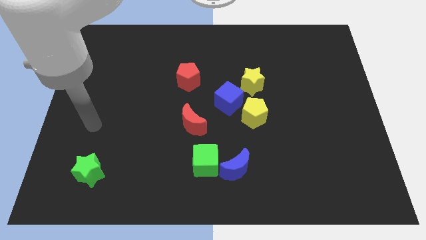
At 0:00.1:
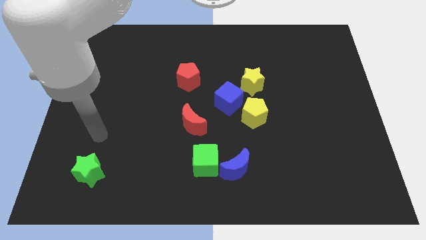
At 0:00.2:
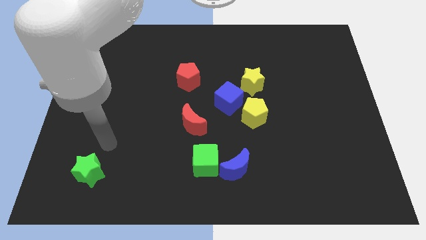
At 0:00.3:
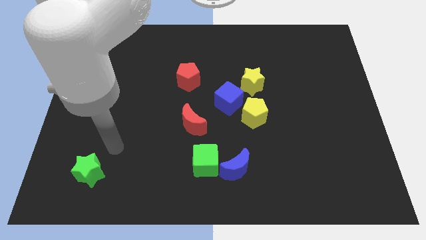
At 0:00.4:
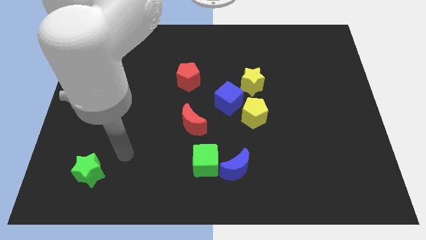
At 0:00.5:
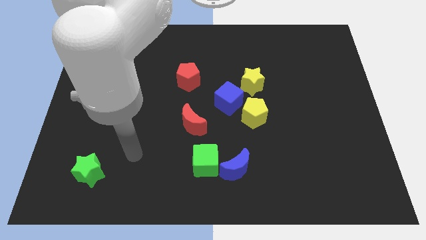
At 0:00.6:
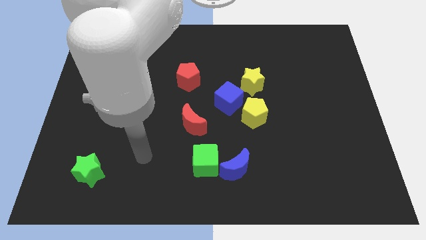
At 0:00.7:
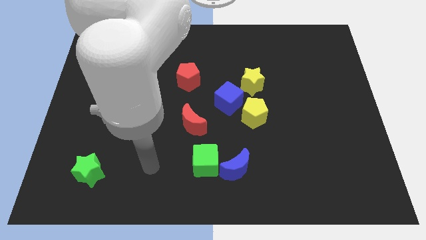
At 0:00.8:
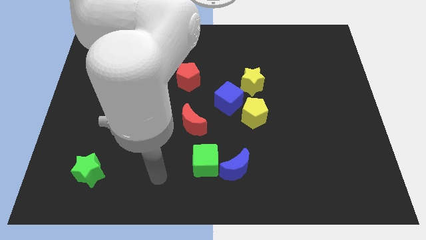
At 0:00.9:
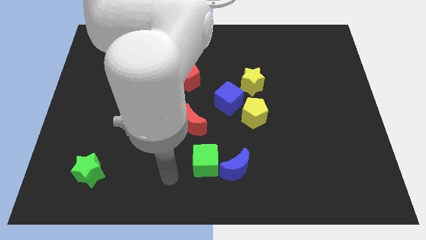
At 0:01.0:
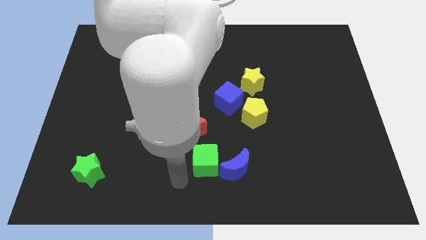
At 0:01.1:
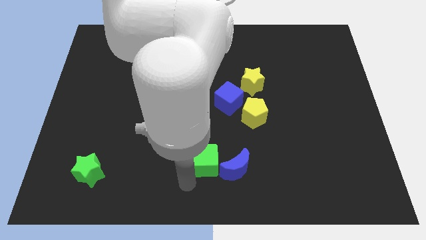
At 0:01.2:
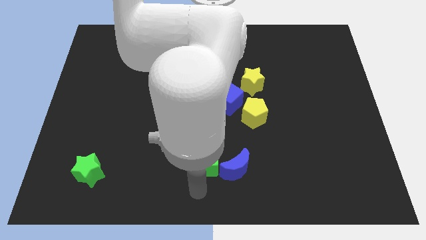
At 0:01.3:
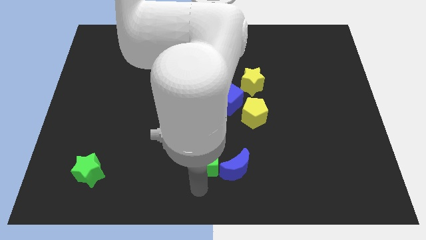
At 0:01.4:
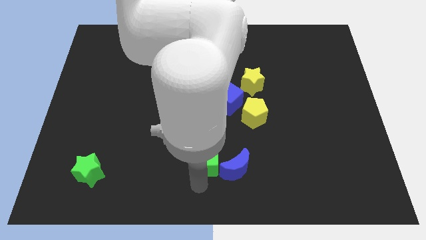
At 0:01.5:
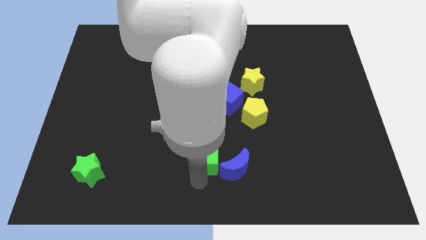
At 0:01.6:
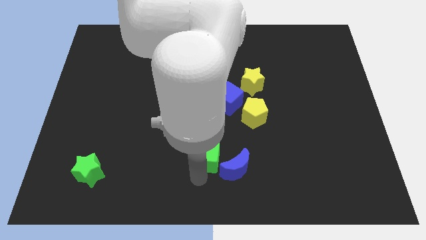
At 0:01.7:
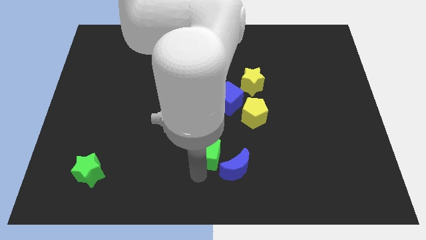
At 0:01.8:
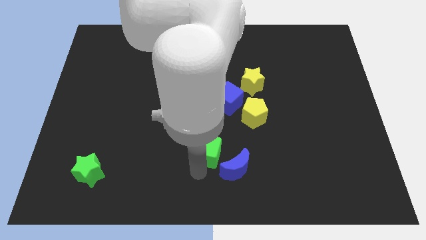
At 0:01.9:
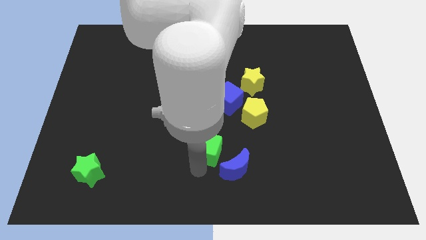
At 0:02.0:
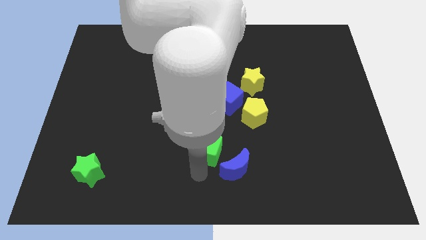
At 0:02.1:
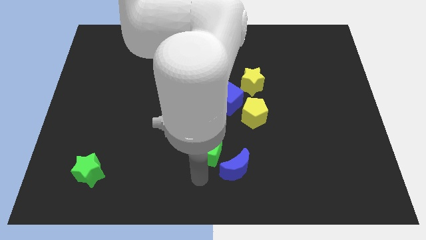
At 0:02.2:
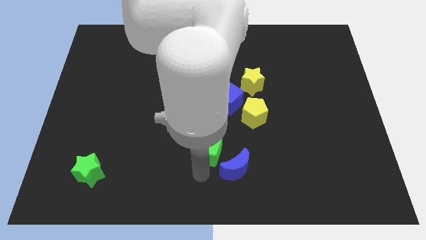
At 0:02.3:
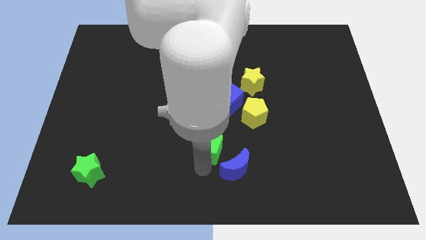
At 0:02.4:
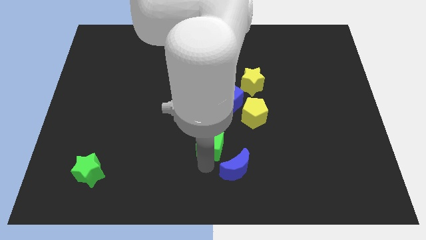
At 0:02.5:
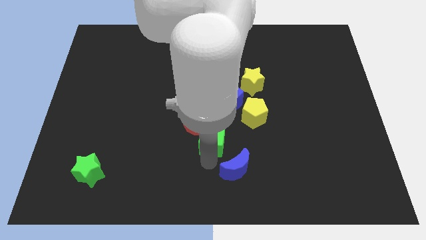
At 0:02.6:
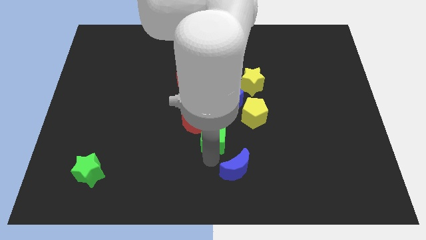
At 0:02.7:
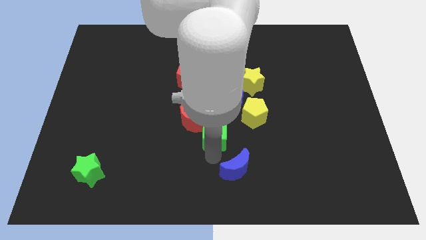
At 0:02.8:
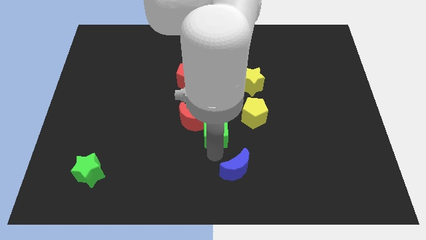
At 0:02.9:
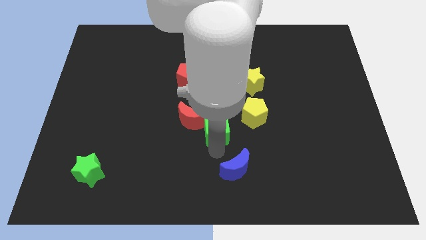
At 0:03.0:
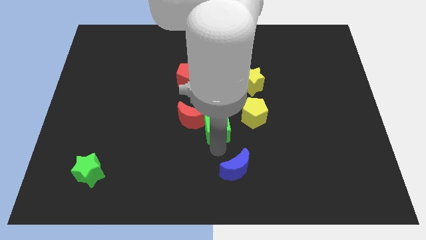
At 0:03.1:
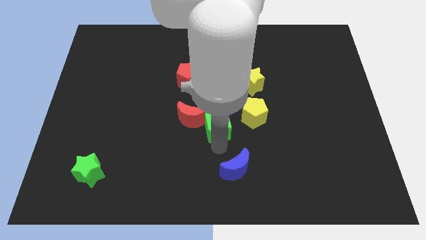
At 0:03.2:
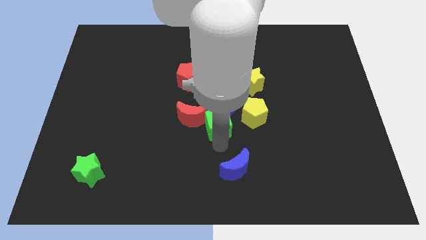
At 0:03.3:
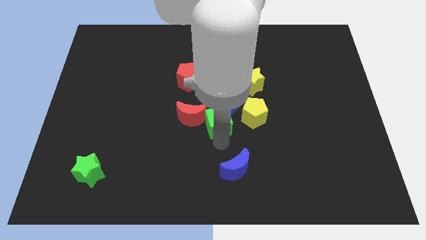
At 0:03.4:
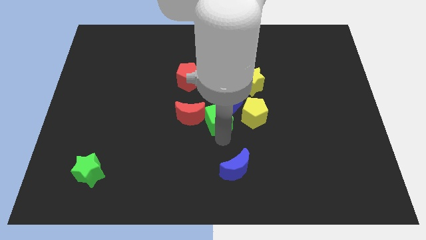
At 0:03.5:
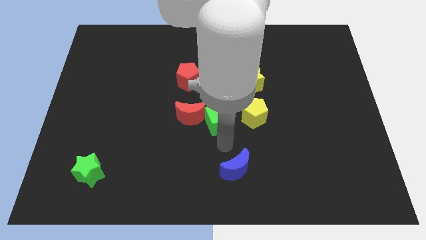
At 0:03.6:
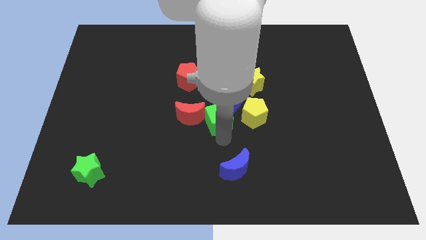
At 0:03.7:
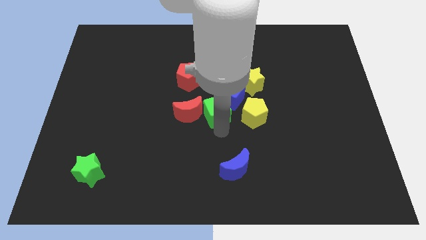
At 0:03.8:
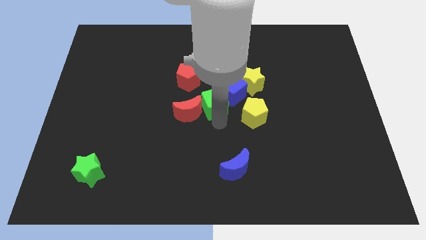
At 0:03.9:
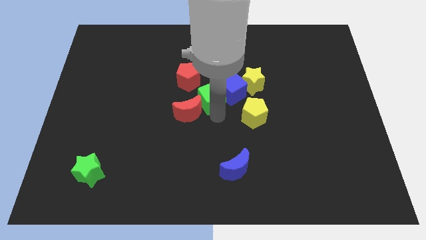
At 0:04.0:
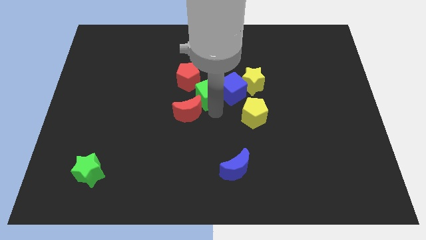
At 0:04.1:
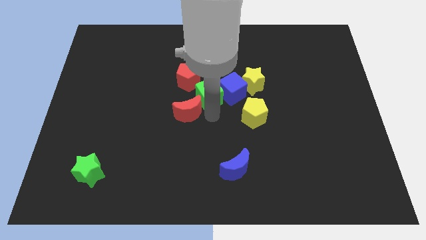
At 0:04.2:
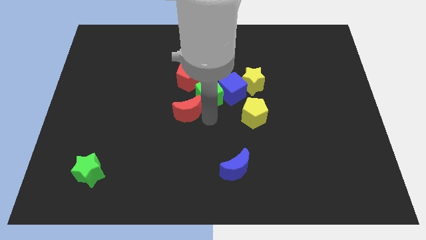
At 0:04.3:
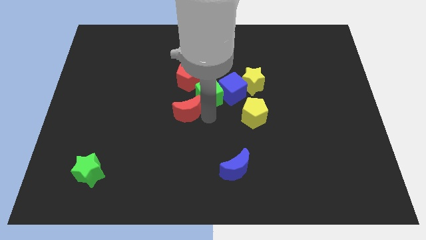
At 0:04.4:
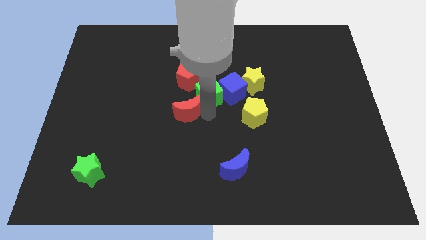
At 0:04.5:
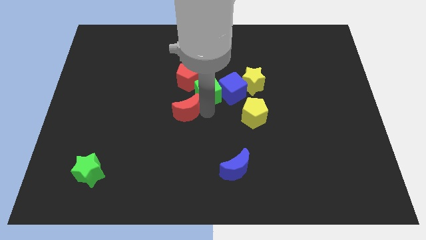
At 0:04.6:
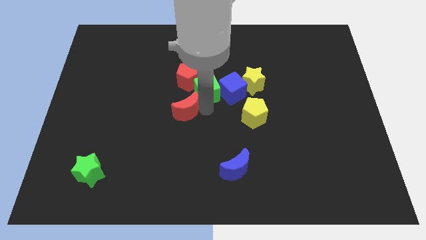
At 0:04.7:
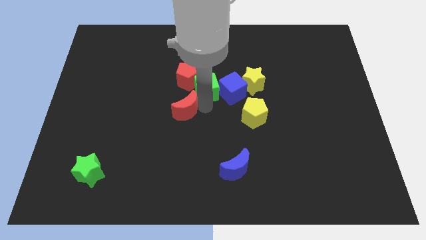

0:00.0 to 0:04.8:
push the green cube upwards

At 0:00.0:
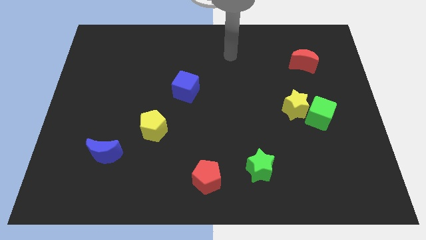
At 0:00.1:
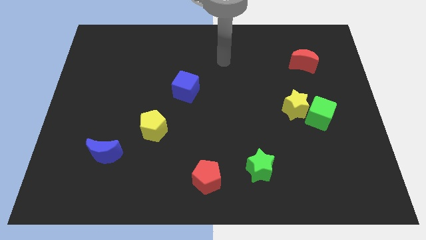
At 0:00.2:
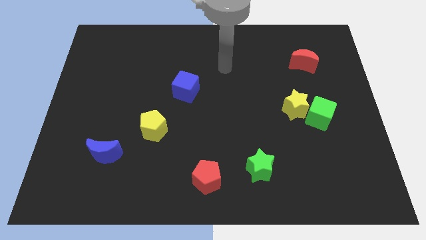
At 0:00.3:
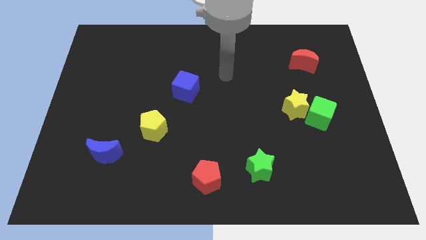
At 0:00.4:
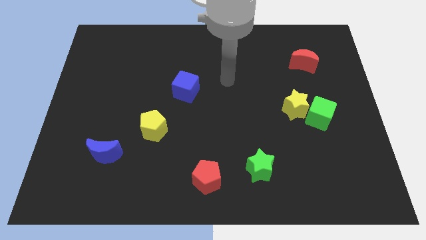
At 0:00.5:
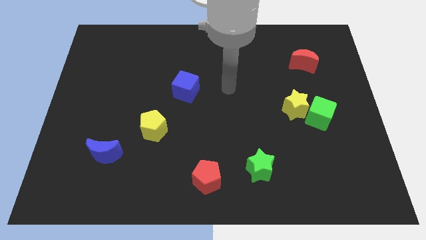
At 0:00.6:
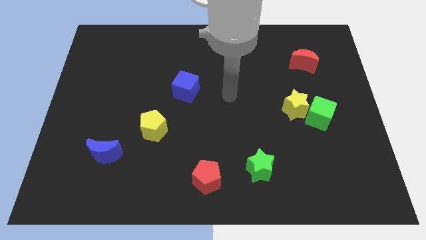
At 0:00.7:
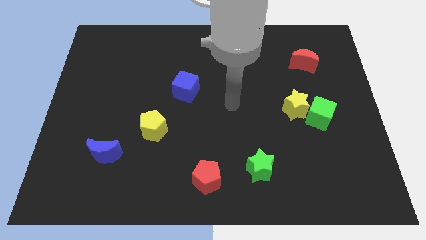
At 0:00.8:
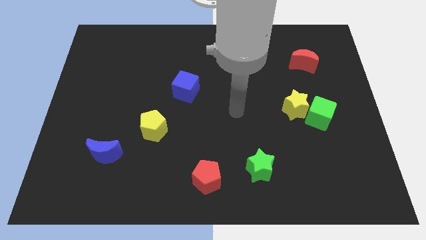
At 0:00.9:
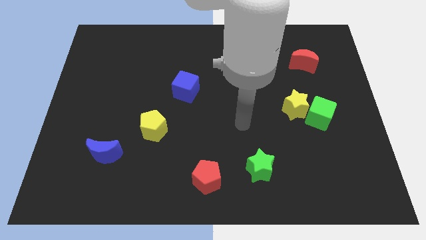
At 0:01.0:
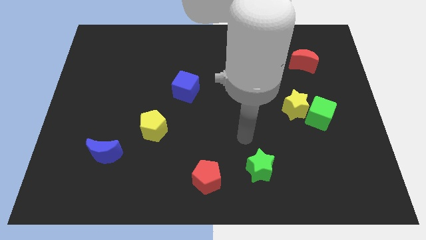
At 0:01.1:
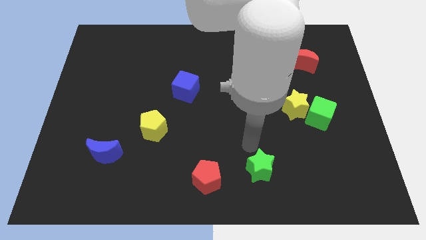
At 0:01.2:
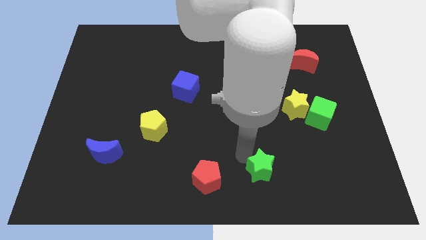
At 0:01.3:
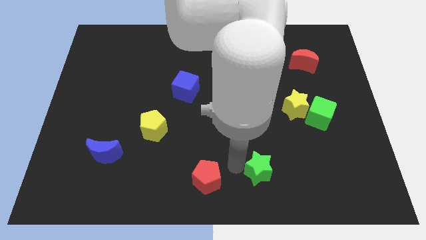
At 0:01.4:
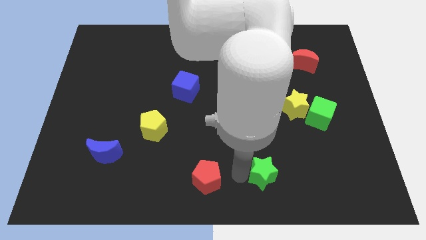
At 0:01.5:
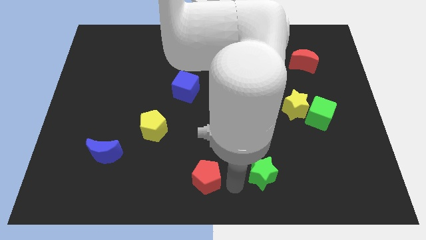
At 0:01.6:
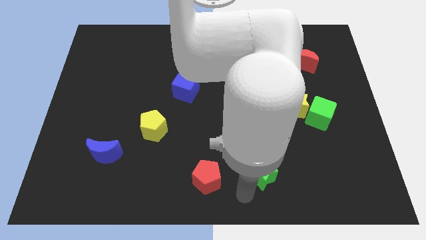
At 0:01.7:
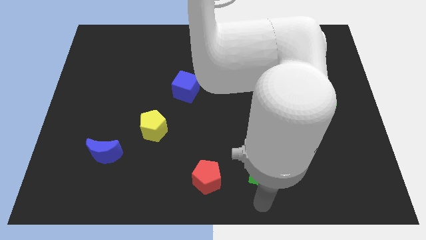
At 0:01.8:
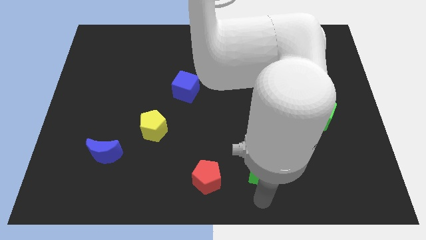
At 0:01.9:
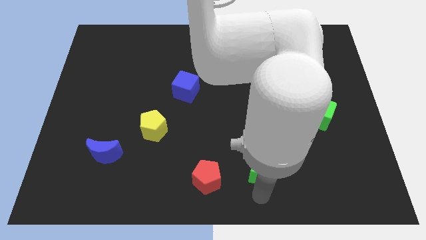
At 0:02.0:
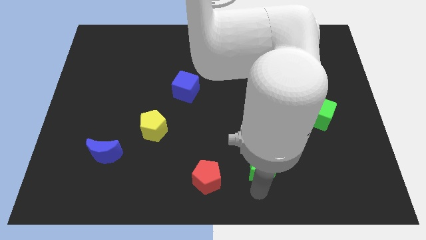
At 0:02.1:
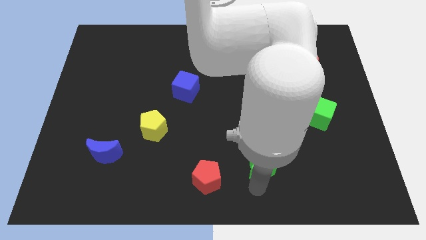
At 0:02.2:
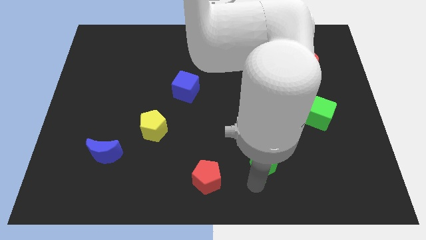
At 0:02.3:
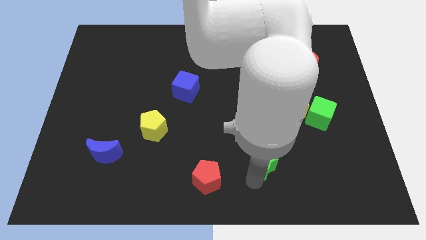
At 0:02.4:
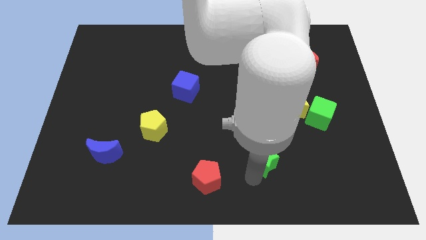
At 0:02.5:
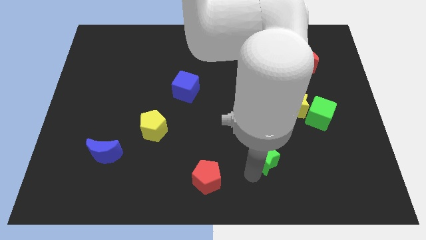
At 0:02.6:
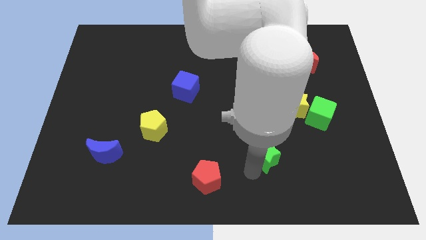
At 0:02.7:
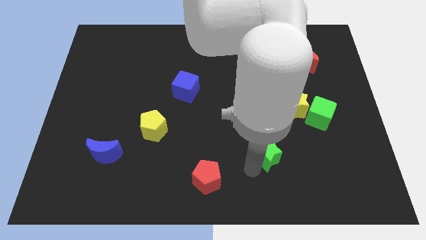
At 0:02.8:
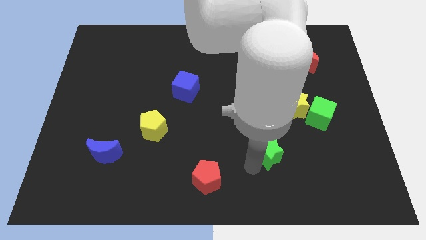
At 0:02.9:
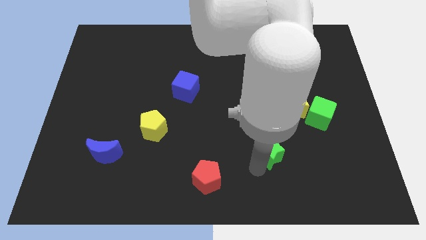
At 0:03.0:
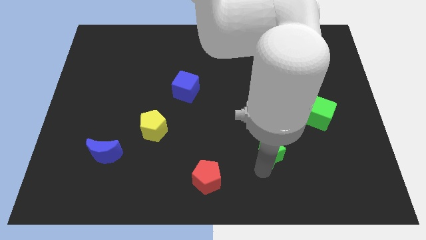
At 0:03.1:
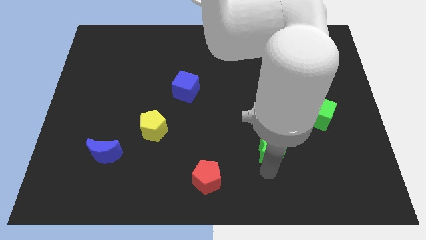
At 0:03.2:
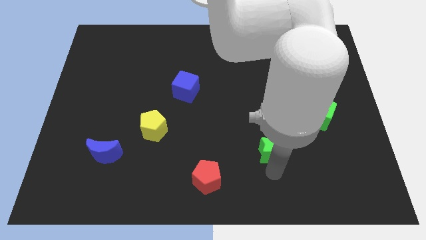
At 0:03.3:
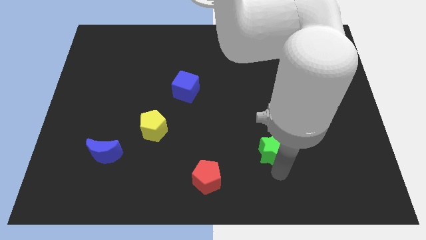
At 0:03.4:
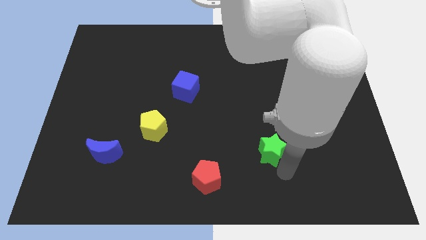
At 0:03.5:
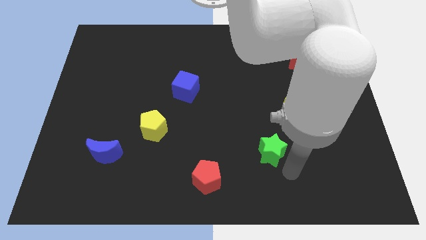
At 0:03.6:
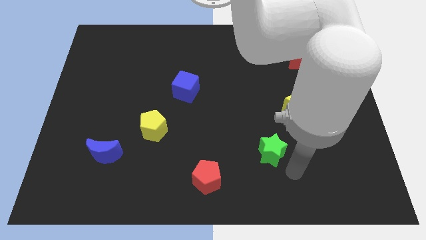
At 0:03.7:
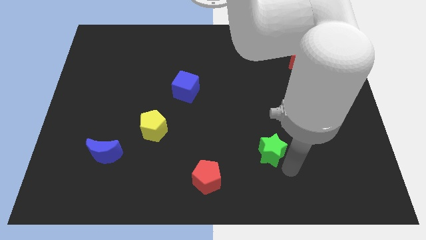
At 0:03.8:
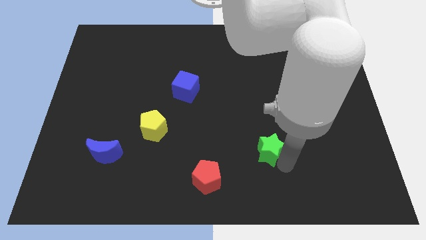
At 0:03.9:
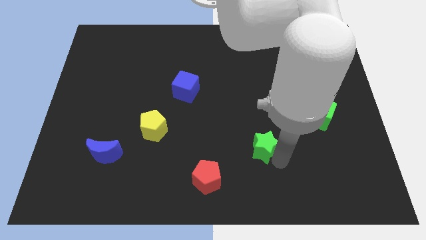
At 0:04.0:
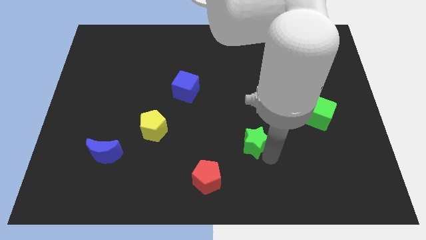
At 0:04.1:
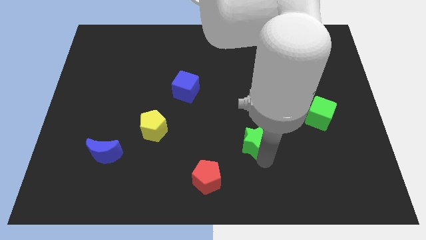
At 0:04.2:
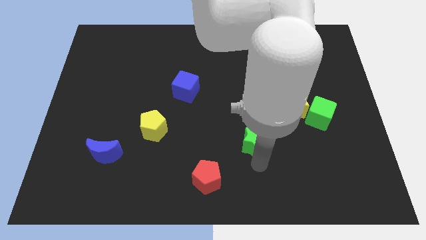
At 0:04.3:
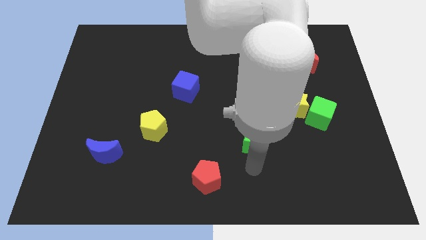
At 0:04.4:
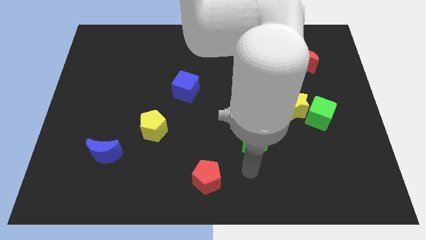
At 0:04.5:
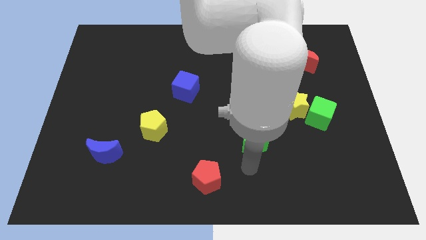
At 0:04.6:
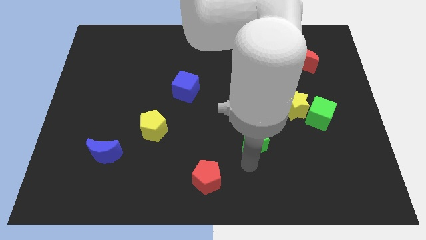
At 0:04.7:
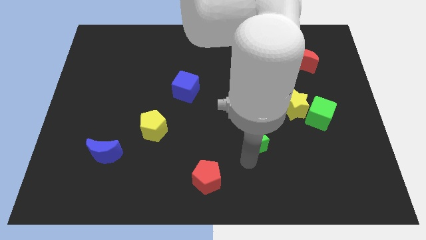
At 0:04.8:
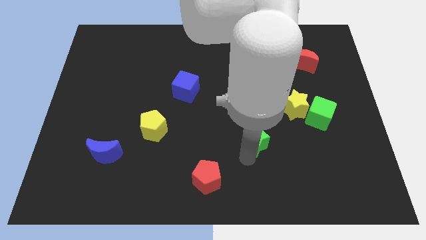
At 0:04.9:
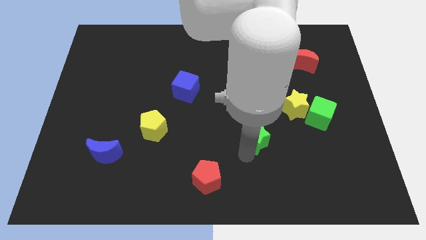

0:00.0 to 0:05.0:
slightly slide the green star up
